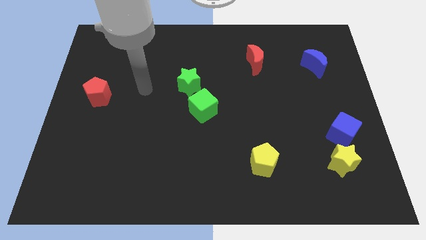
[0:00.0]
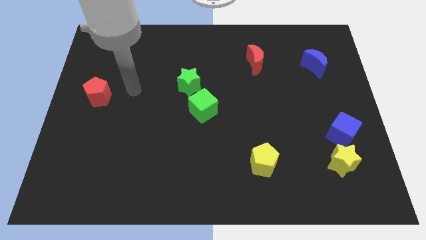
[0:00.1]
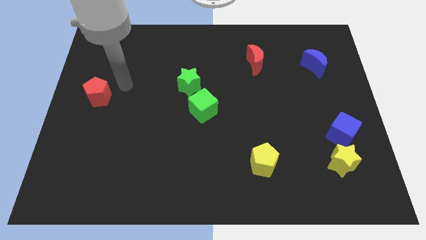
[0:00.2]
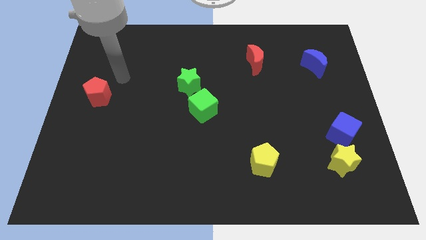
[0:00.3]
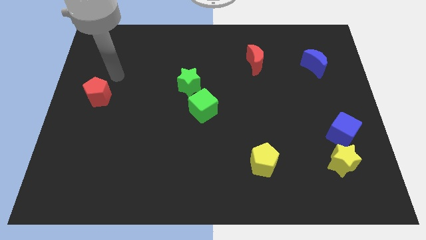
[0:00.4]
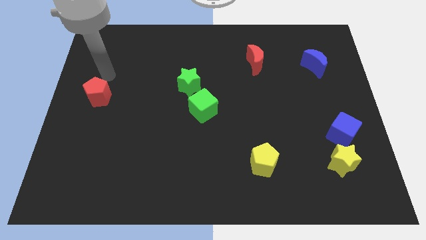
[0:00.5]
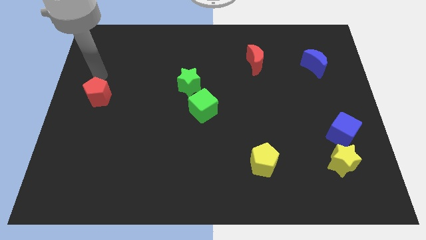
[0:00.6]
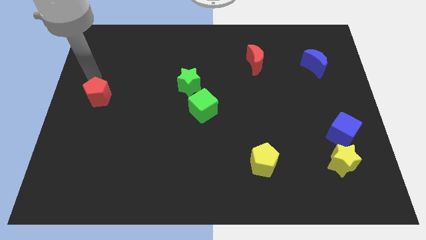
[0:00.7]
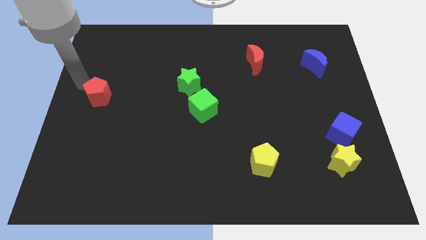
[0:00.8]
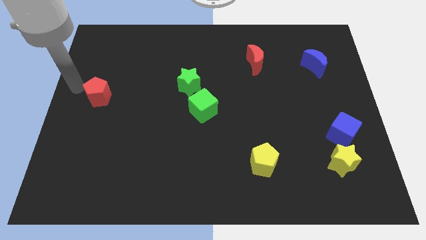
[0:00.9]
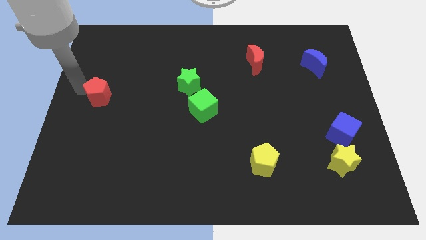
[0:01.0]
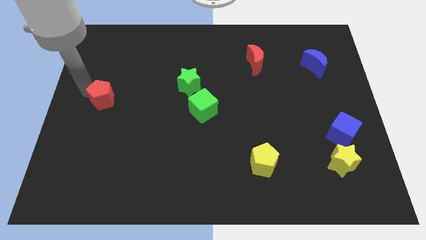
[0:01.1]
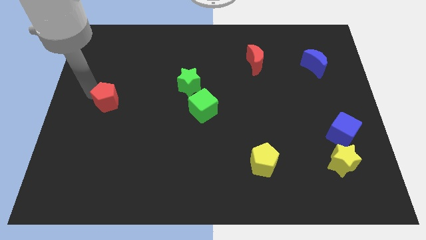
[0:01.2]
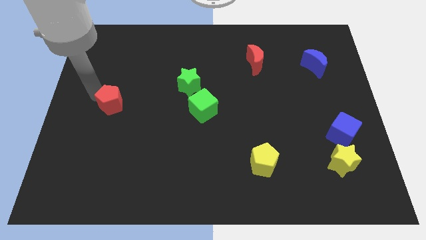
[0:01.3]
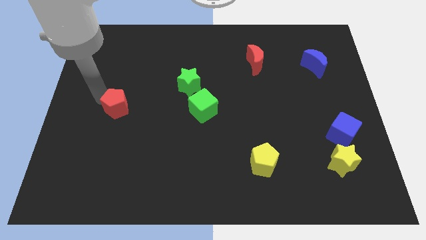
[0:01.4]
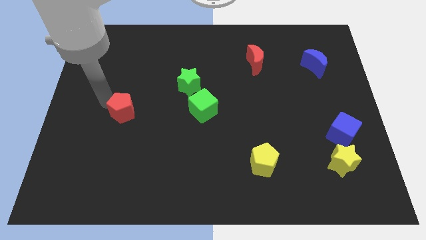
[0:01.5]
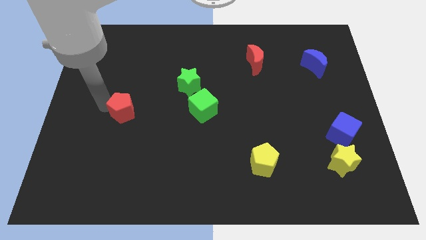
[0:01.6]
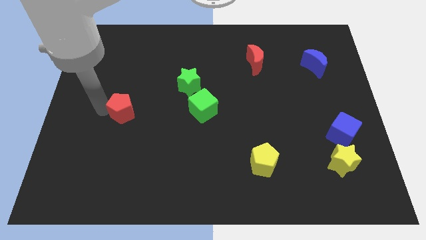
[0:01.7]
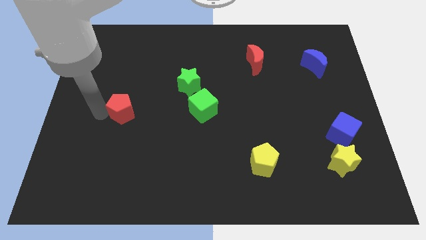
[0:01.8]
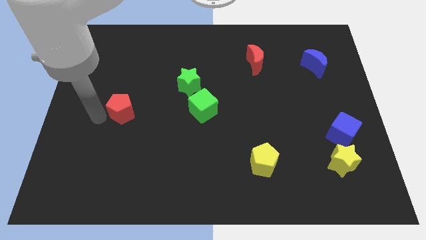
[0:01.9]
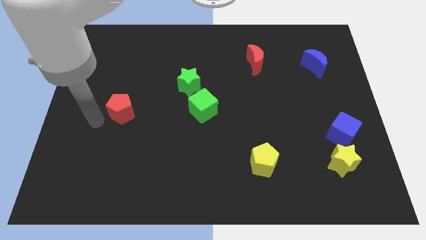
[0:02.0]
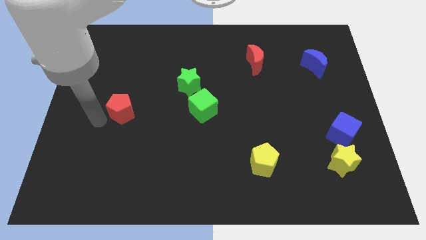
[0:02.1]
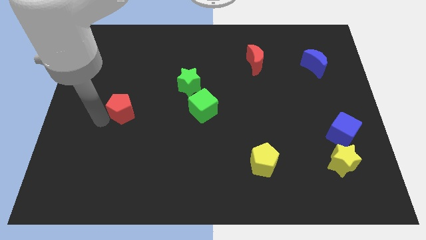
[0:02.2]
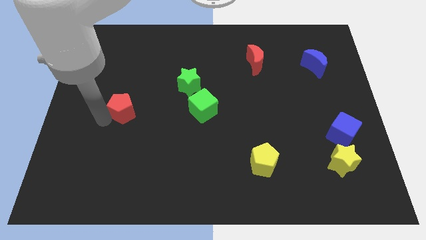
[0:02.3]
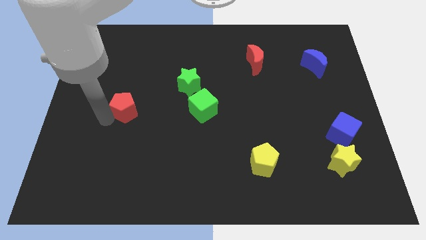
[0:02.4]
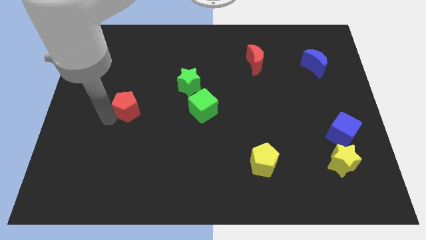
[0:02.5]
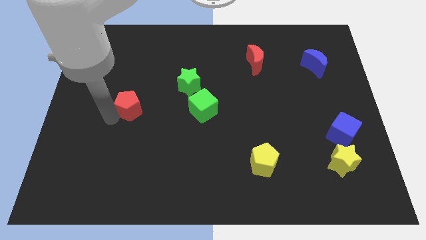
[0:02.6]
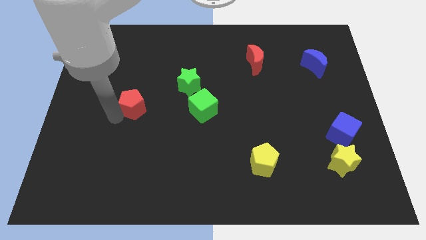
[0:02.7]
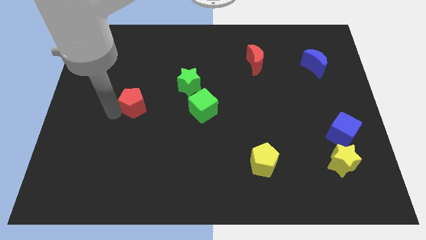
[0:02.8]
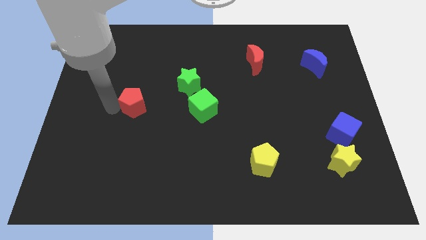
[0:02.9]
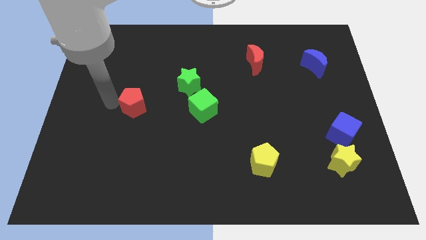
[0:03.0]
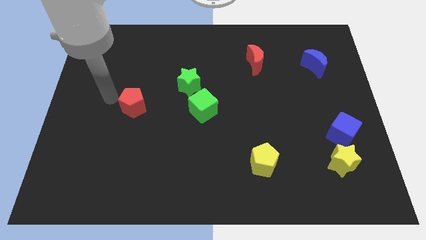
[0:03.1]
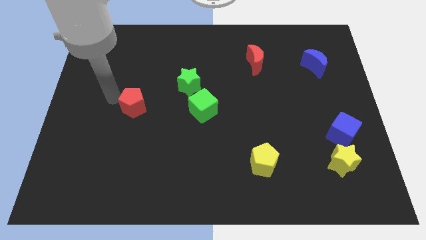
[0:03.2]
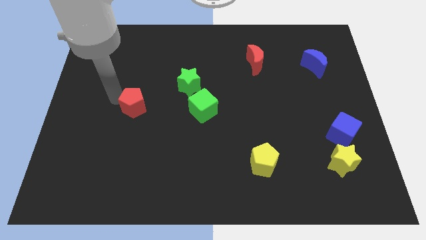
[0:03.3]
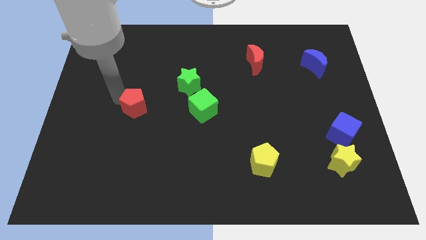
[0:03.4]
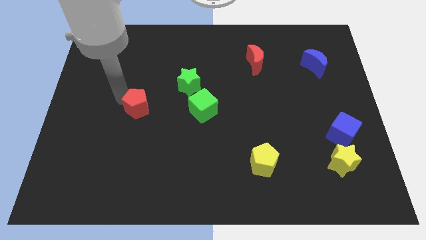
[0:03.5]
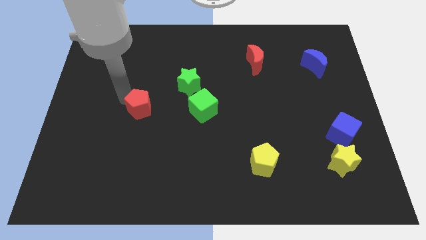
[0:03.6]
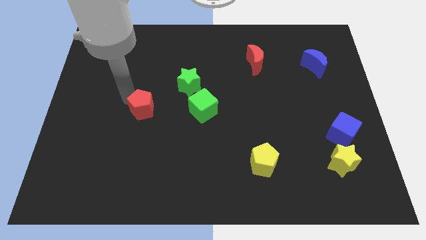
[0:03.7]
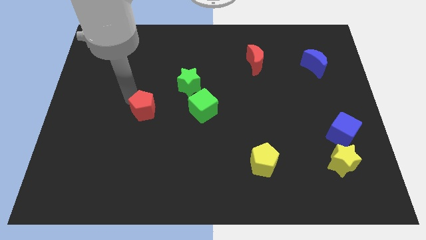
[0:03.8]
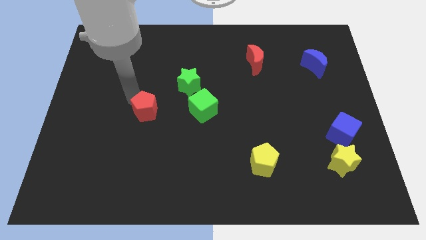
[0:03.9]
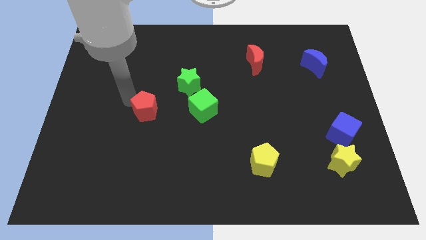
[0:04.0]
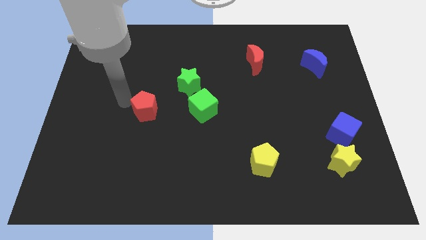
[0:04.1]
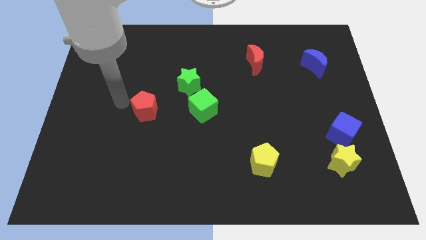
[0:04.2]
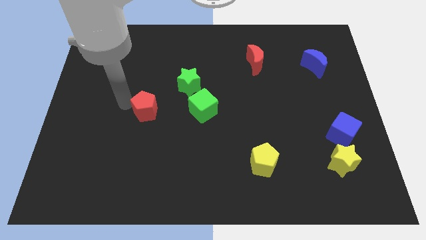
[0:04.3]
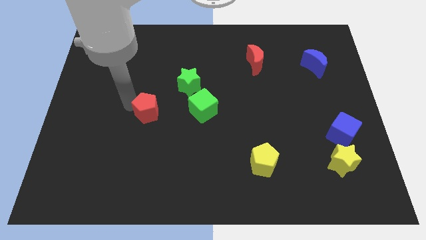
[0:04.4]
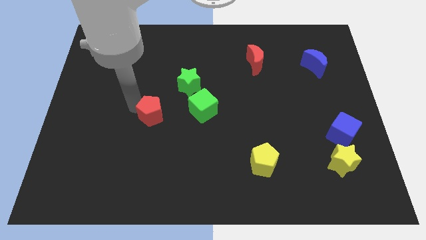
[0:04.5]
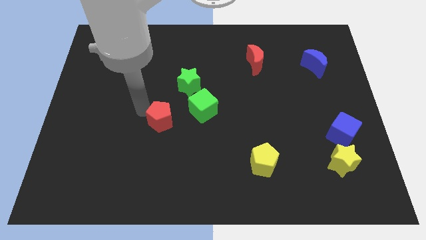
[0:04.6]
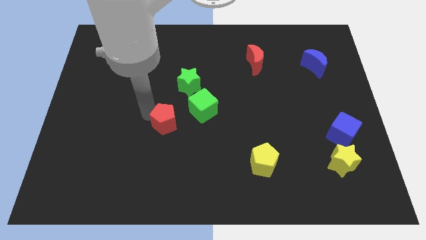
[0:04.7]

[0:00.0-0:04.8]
push the red pentagon to the bottom of the green star

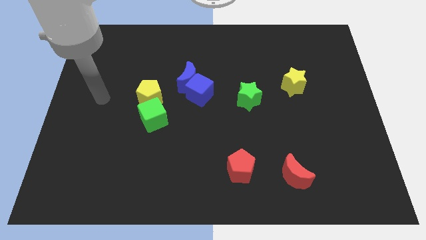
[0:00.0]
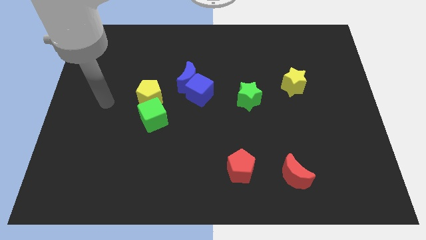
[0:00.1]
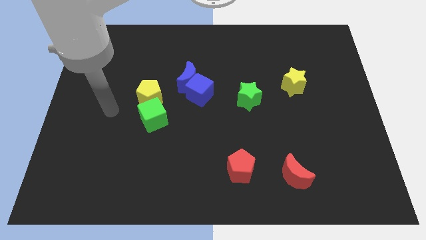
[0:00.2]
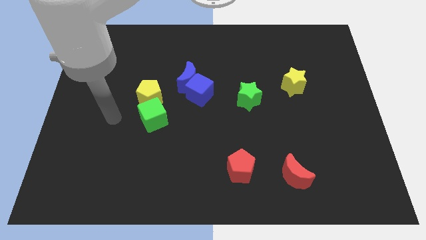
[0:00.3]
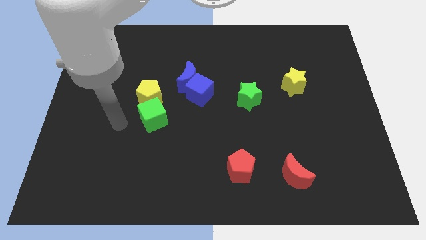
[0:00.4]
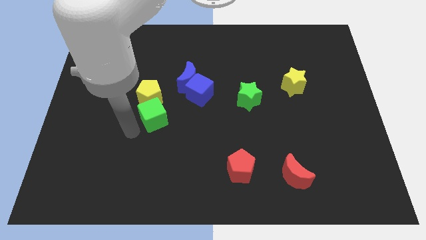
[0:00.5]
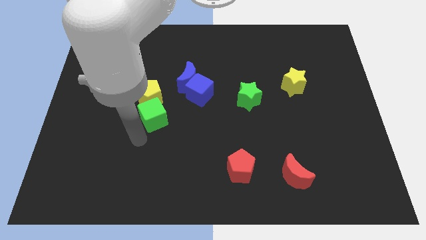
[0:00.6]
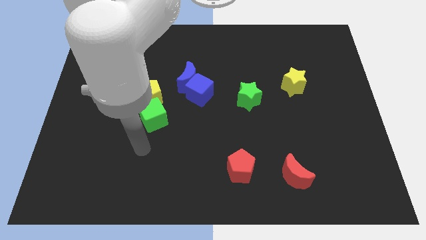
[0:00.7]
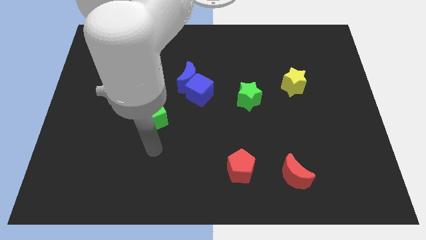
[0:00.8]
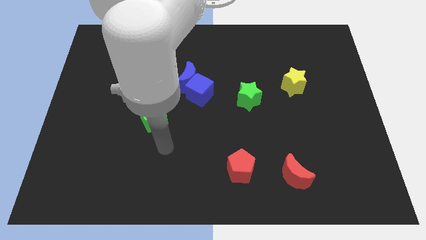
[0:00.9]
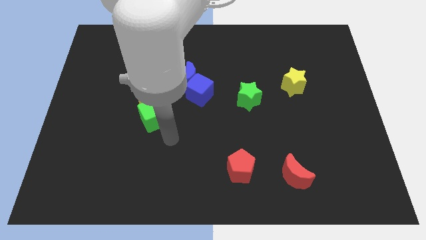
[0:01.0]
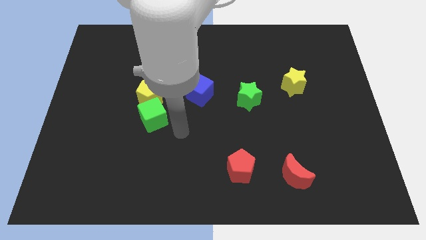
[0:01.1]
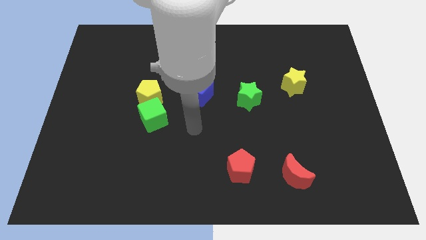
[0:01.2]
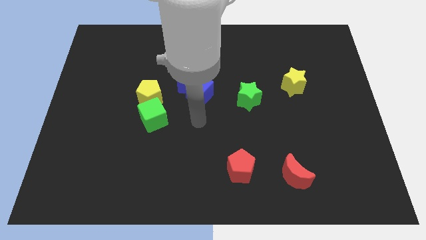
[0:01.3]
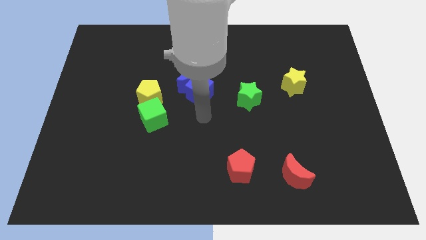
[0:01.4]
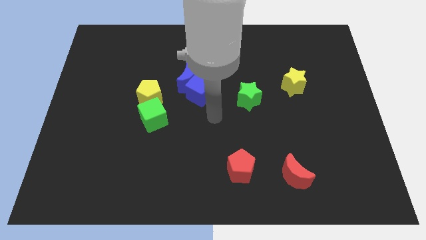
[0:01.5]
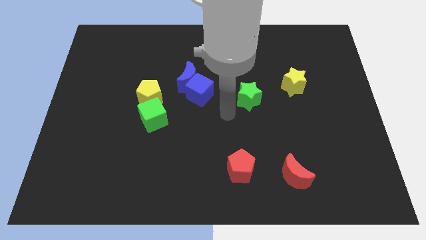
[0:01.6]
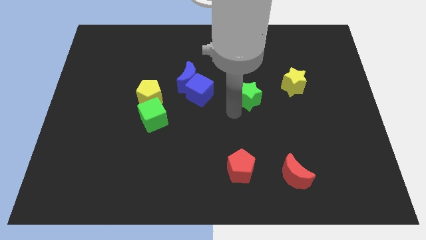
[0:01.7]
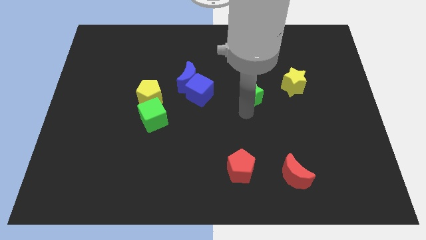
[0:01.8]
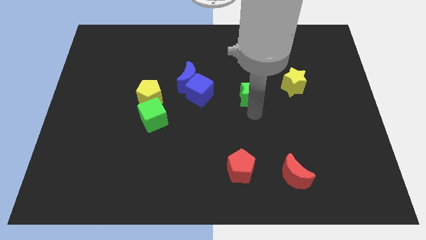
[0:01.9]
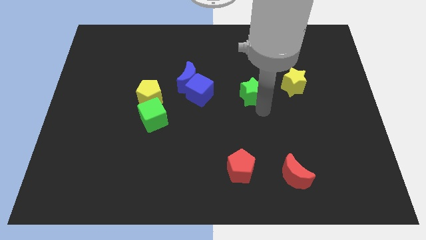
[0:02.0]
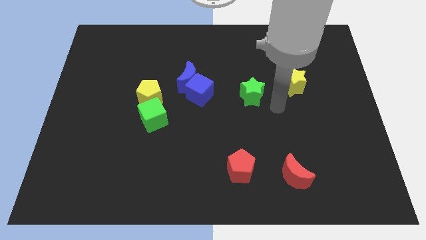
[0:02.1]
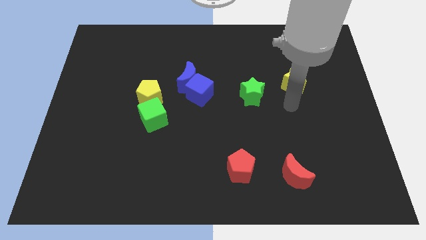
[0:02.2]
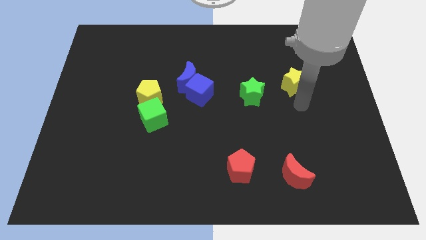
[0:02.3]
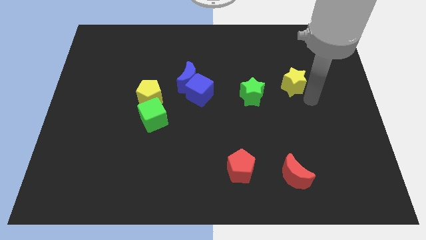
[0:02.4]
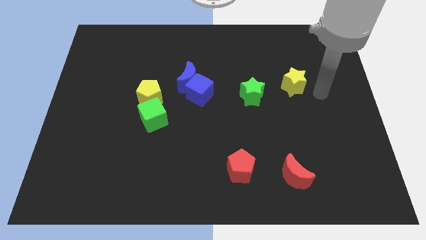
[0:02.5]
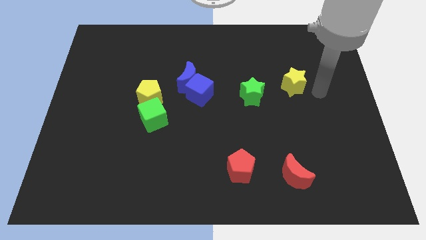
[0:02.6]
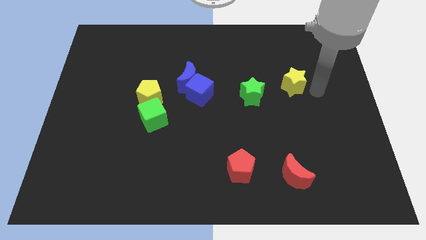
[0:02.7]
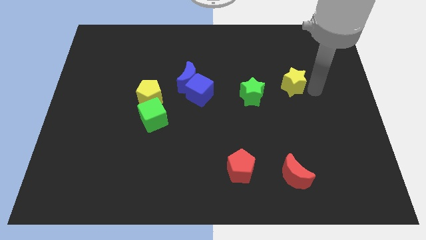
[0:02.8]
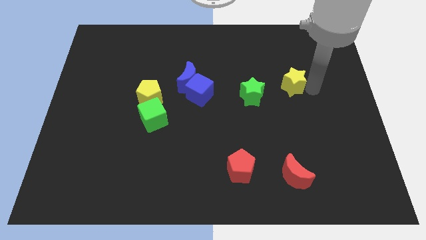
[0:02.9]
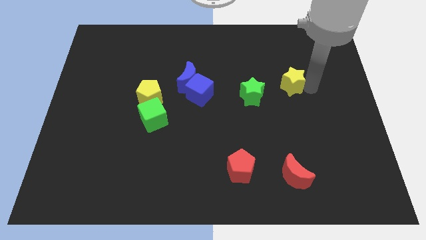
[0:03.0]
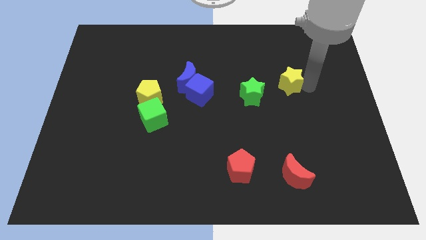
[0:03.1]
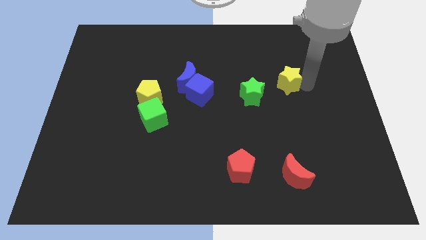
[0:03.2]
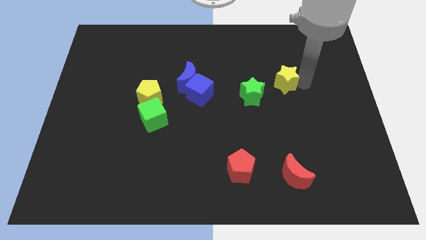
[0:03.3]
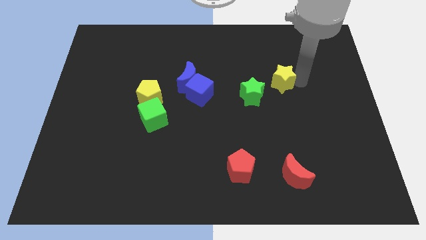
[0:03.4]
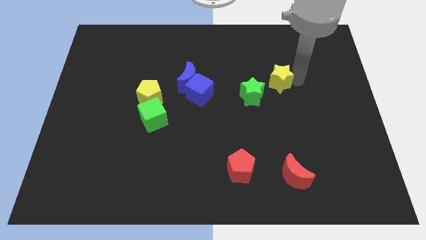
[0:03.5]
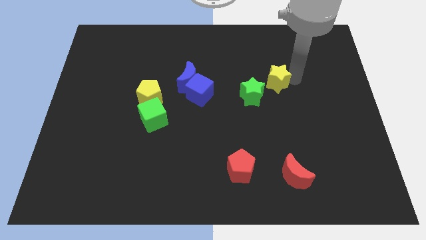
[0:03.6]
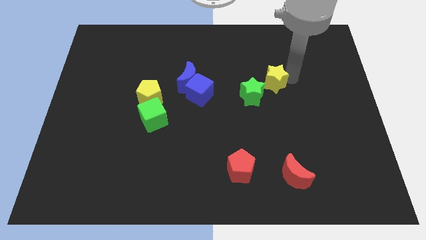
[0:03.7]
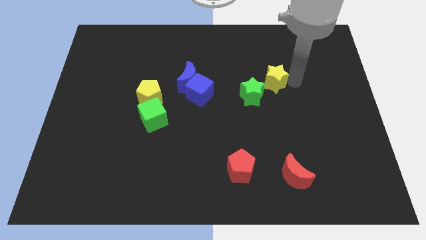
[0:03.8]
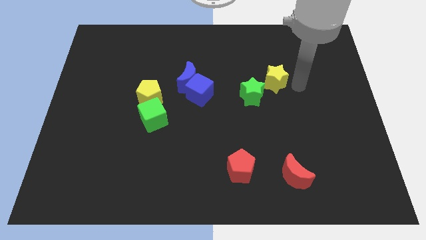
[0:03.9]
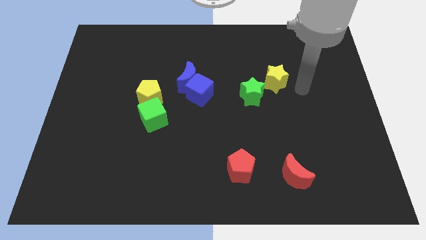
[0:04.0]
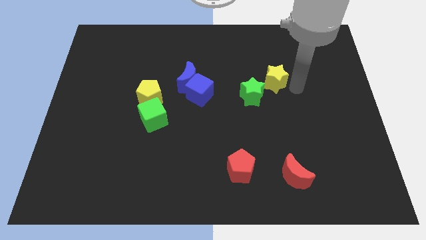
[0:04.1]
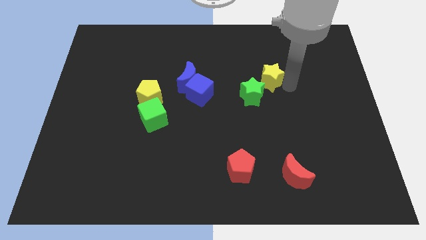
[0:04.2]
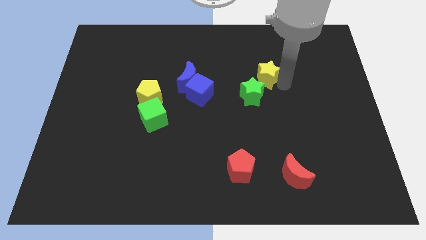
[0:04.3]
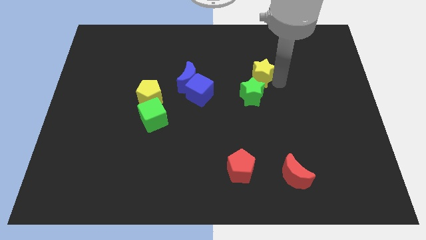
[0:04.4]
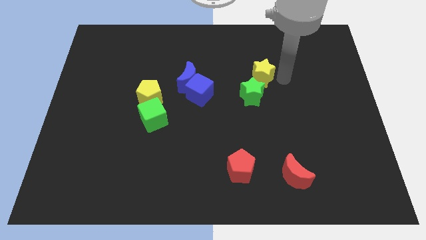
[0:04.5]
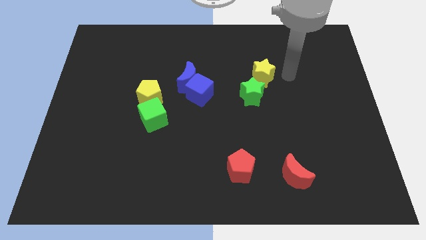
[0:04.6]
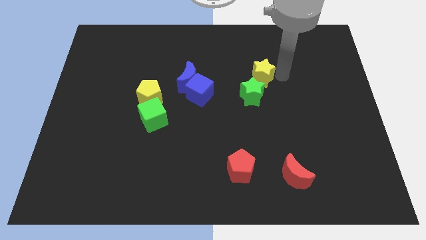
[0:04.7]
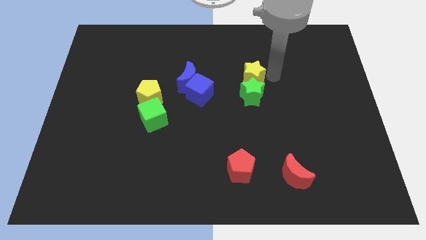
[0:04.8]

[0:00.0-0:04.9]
push the yellow star diagonally up and to the left of the green star
